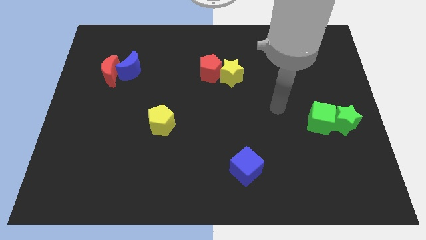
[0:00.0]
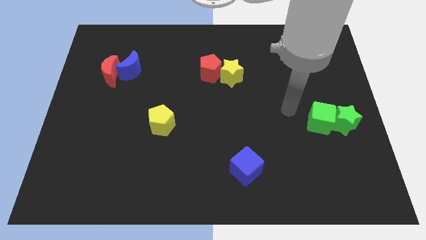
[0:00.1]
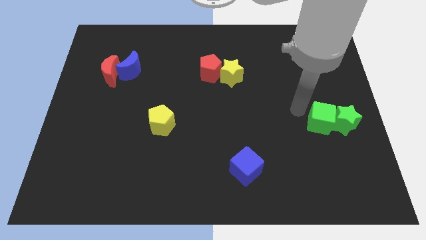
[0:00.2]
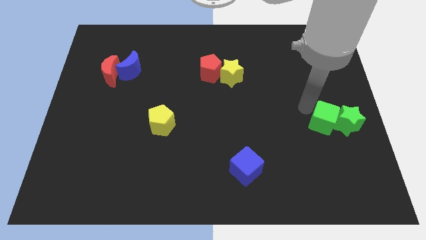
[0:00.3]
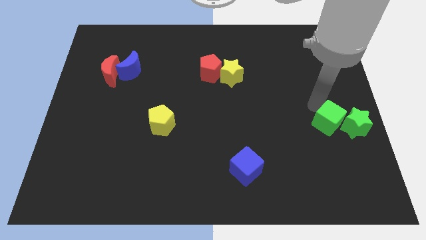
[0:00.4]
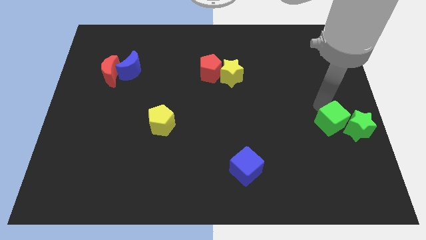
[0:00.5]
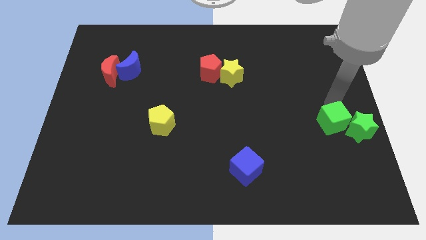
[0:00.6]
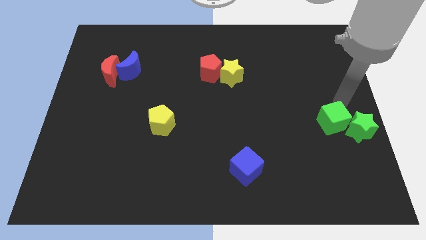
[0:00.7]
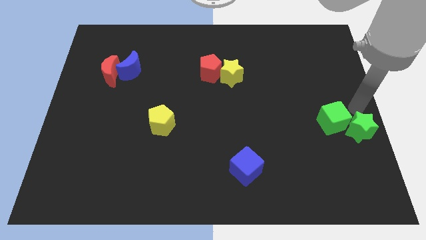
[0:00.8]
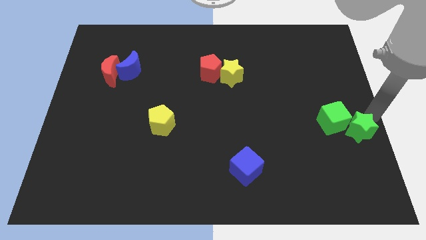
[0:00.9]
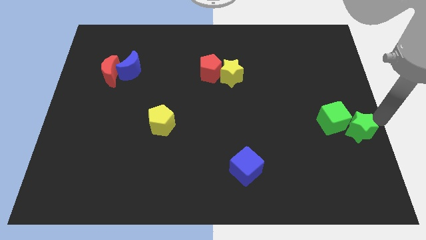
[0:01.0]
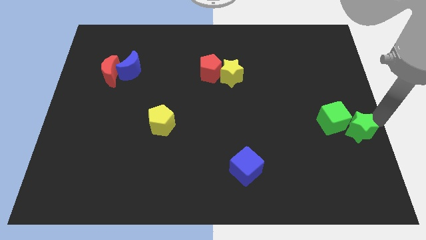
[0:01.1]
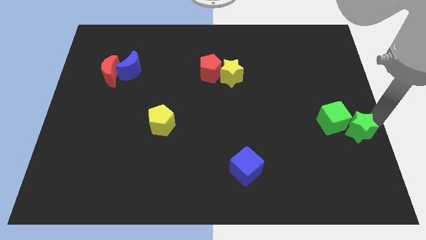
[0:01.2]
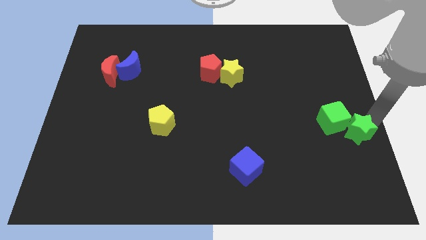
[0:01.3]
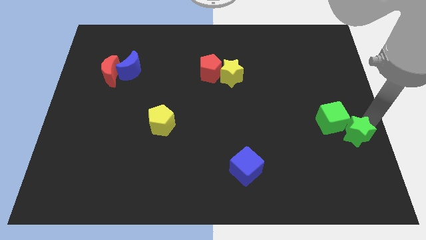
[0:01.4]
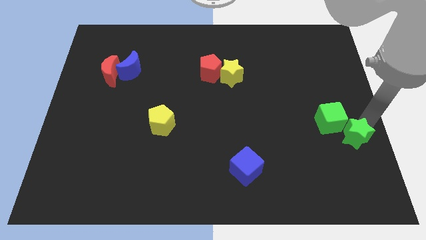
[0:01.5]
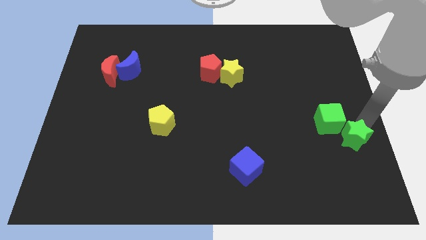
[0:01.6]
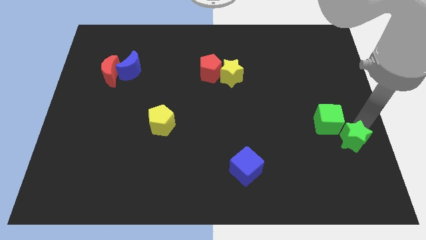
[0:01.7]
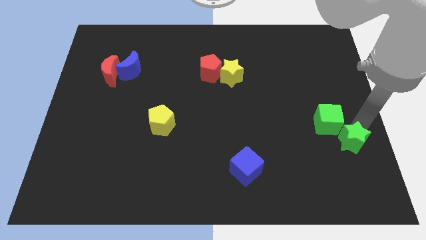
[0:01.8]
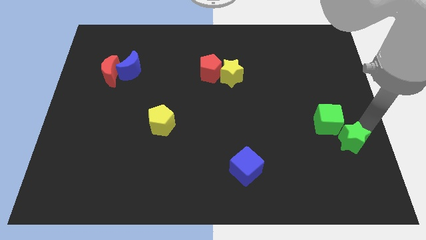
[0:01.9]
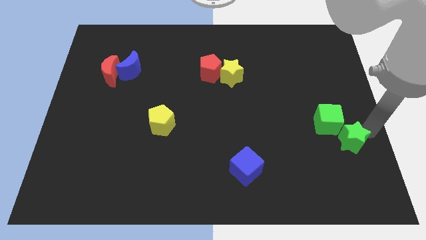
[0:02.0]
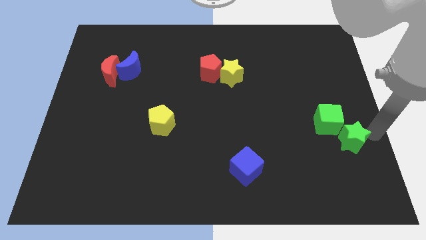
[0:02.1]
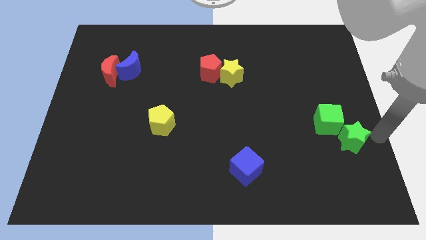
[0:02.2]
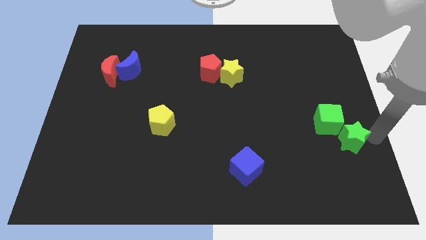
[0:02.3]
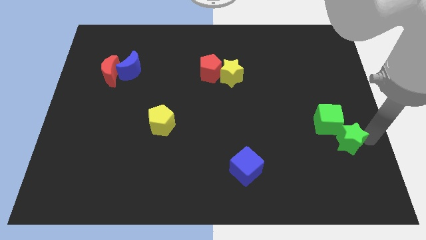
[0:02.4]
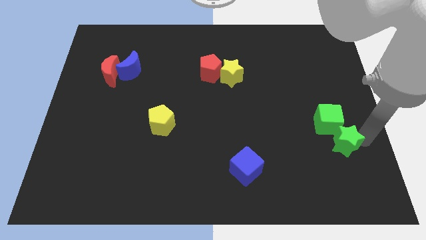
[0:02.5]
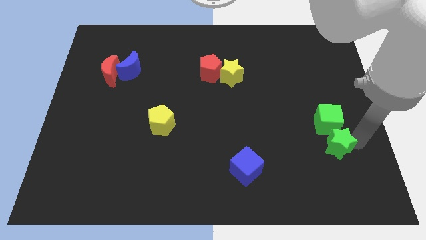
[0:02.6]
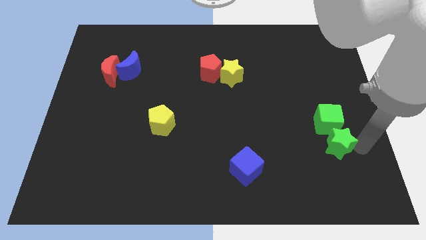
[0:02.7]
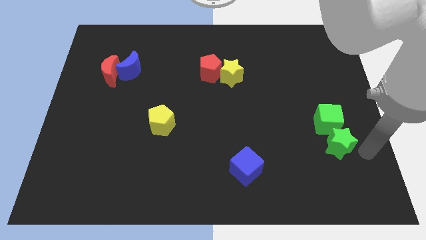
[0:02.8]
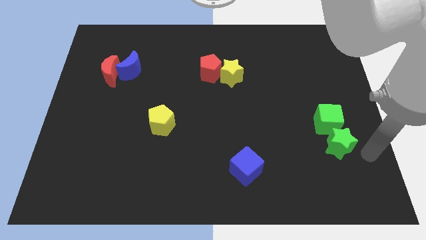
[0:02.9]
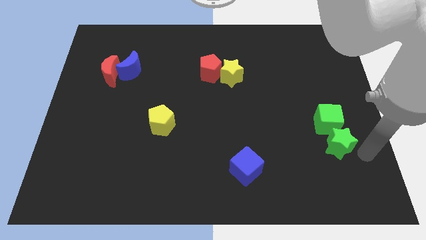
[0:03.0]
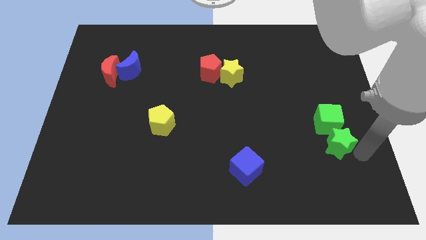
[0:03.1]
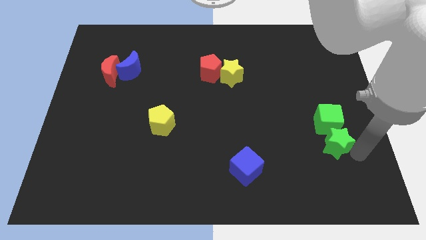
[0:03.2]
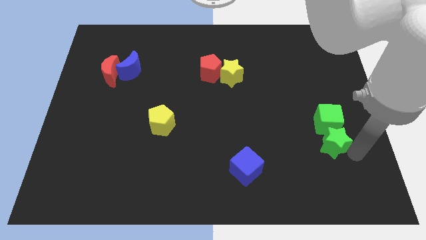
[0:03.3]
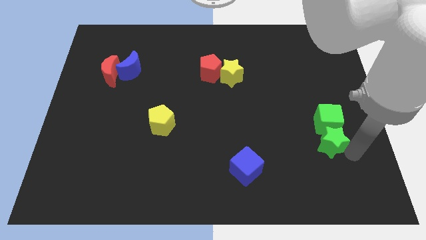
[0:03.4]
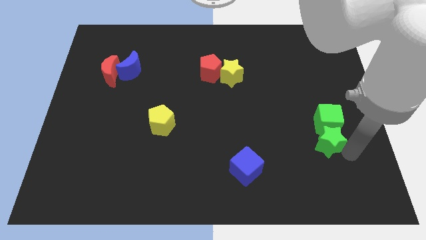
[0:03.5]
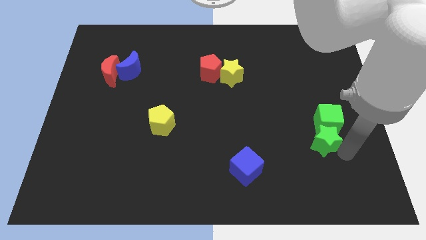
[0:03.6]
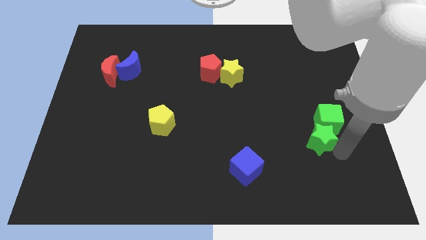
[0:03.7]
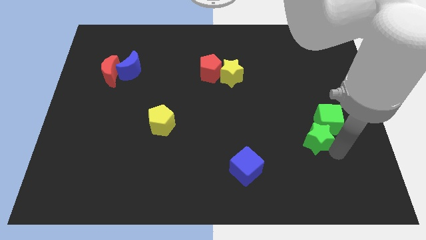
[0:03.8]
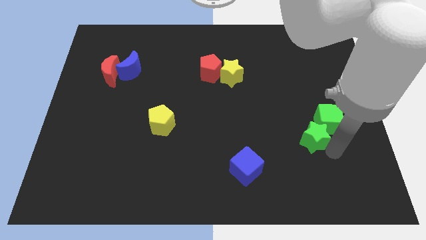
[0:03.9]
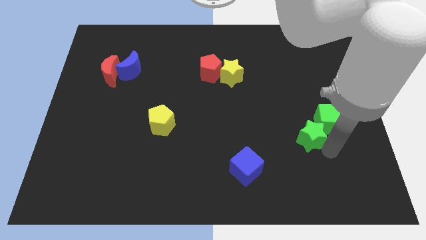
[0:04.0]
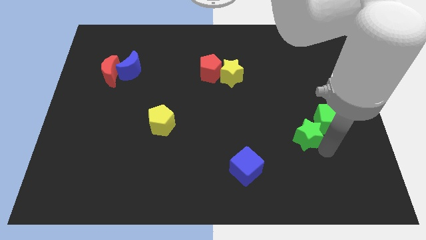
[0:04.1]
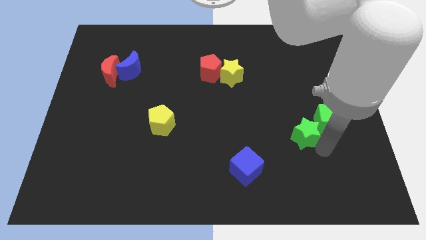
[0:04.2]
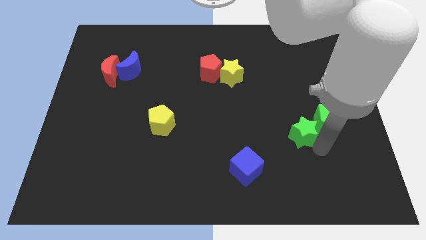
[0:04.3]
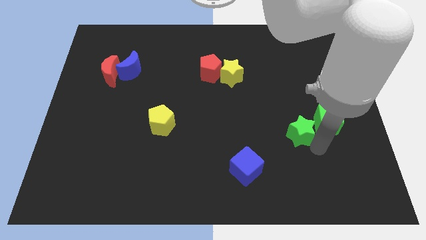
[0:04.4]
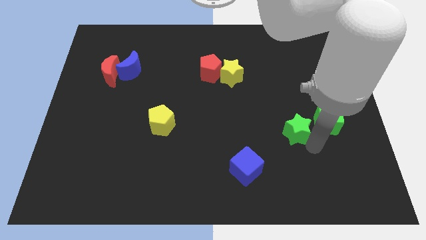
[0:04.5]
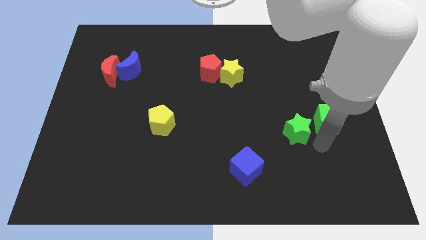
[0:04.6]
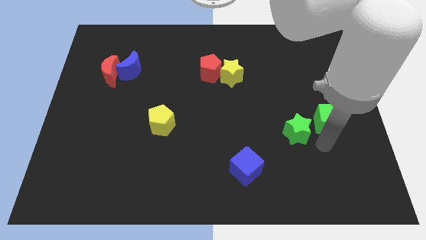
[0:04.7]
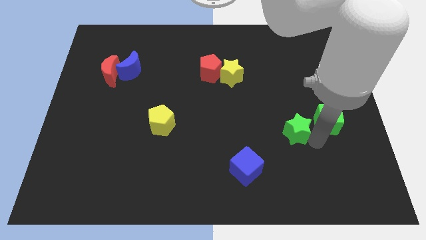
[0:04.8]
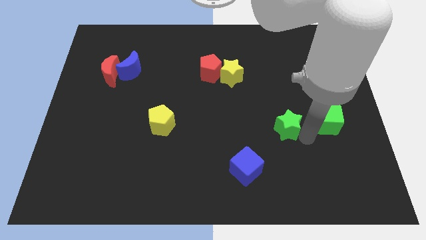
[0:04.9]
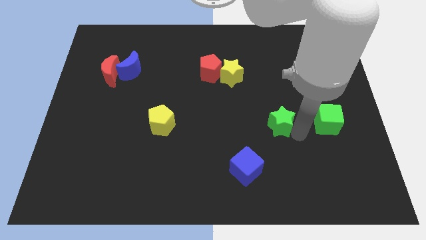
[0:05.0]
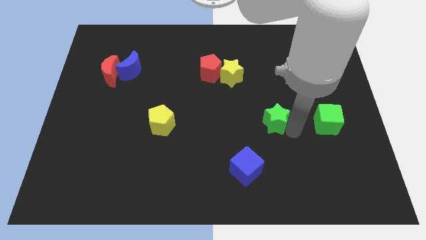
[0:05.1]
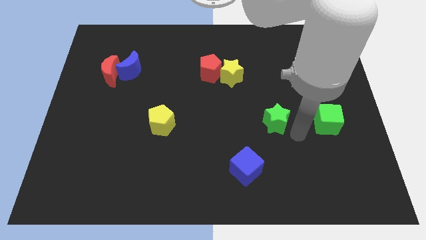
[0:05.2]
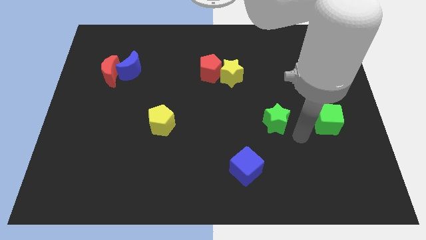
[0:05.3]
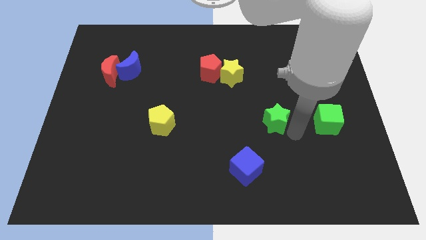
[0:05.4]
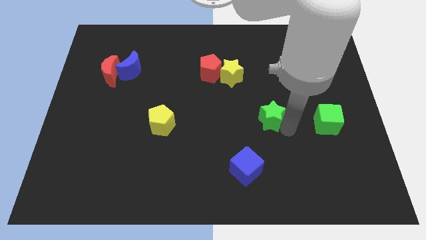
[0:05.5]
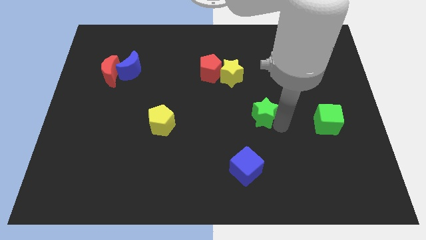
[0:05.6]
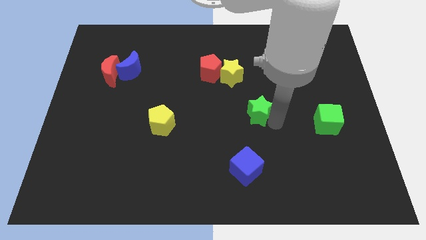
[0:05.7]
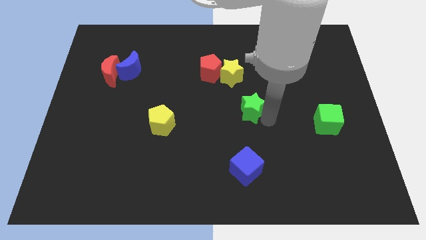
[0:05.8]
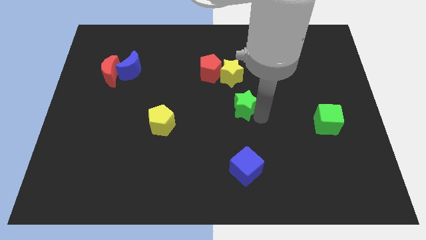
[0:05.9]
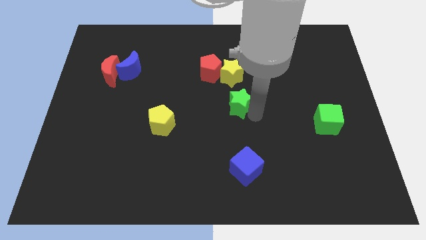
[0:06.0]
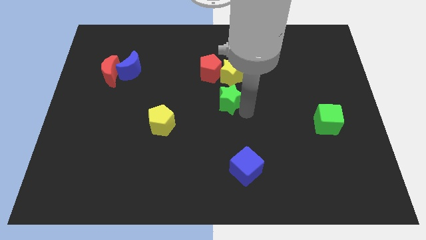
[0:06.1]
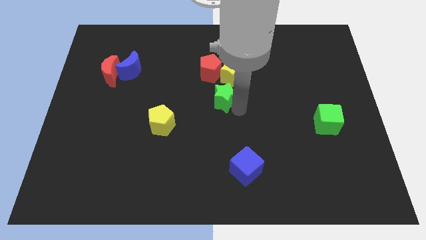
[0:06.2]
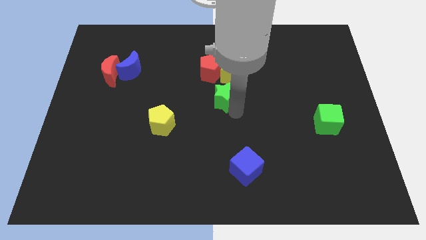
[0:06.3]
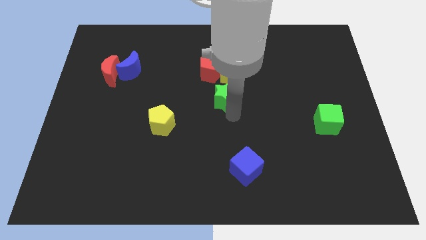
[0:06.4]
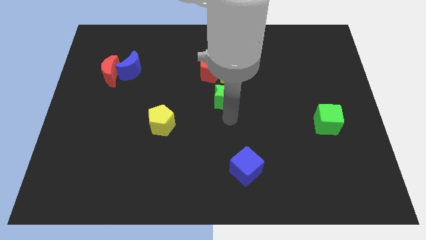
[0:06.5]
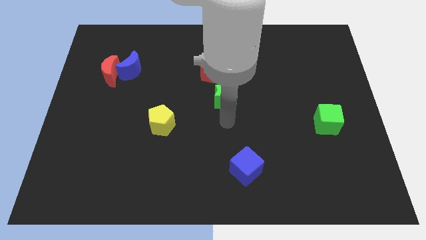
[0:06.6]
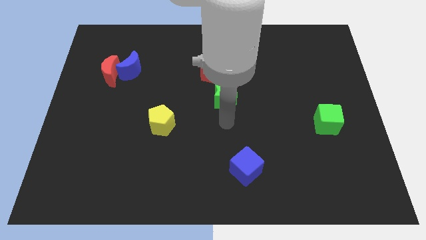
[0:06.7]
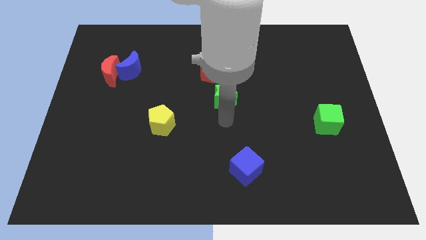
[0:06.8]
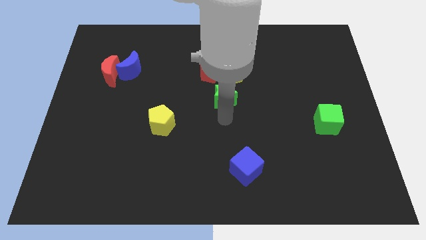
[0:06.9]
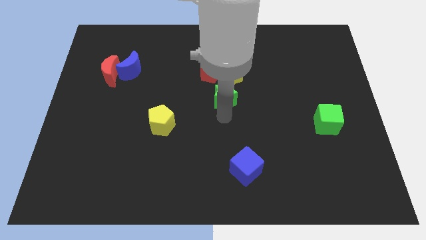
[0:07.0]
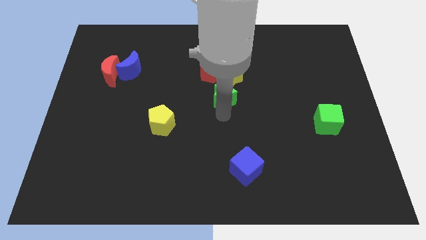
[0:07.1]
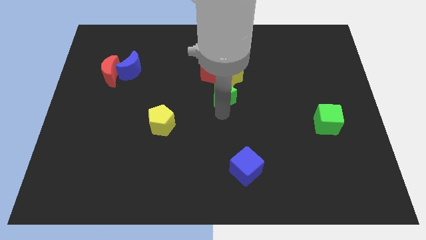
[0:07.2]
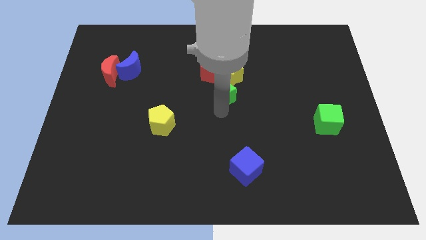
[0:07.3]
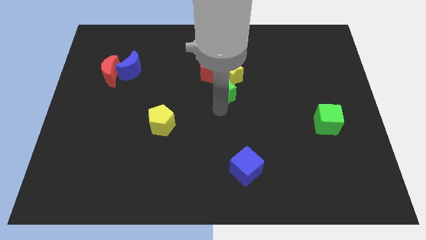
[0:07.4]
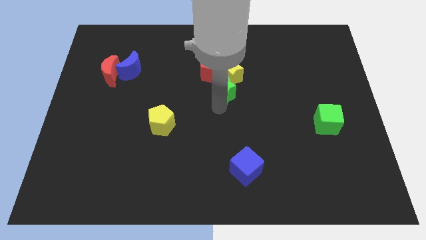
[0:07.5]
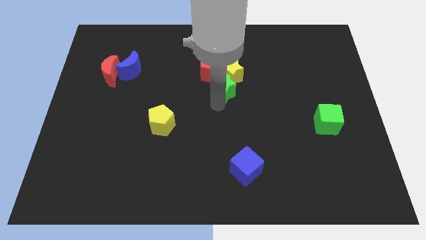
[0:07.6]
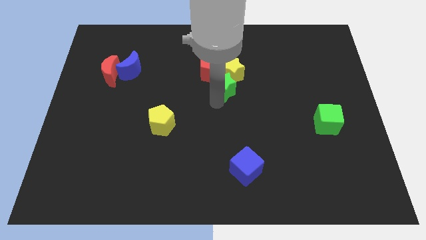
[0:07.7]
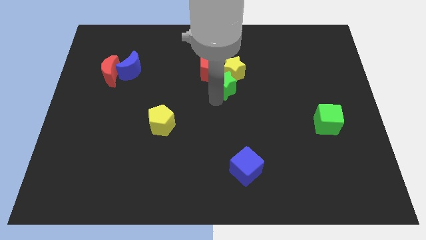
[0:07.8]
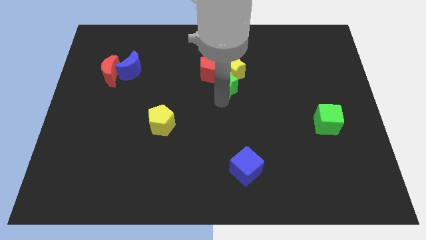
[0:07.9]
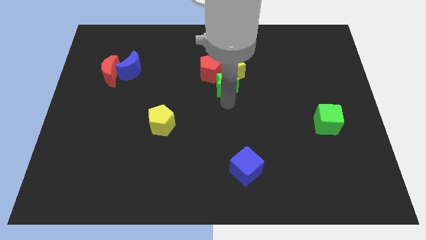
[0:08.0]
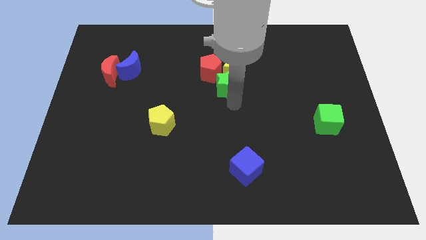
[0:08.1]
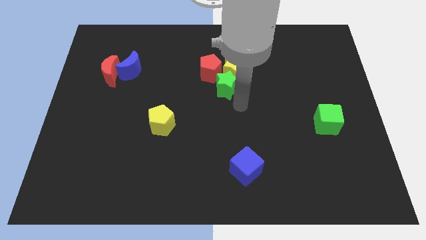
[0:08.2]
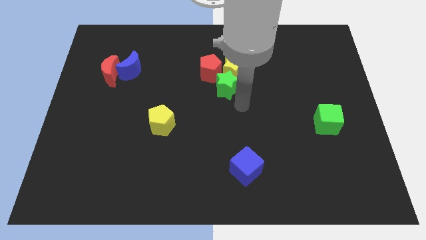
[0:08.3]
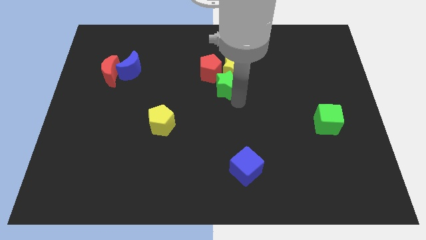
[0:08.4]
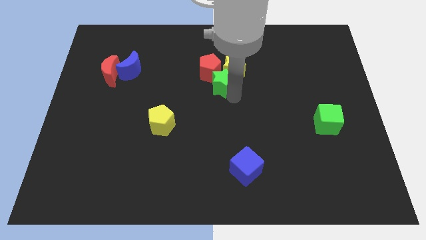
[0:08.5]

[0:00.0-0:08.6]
move the green star close to the red pentagon
